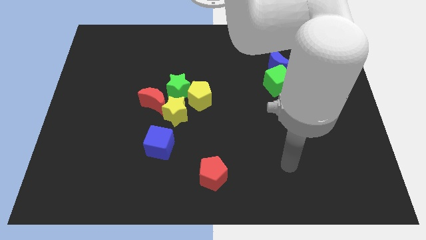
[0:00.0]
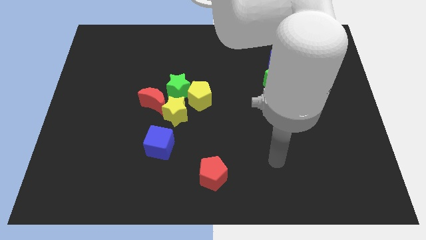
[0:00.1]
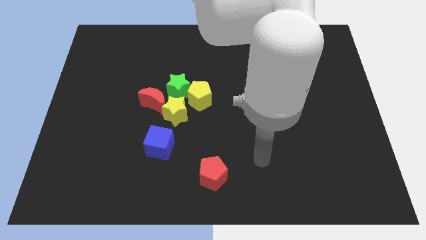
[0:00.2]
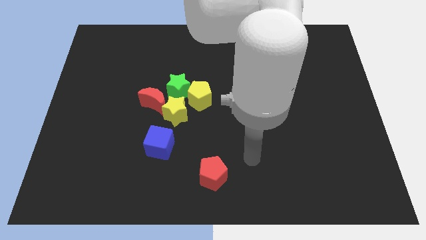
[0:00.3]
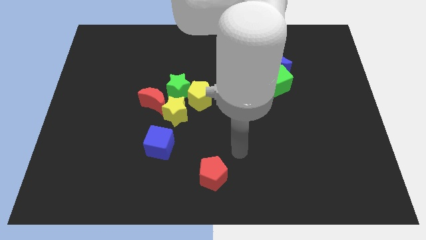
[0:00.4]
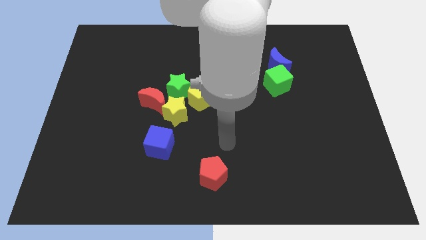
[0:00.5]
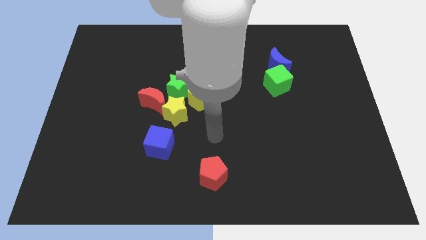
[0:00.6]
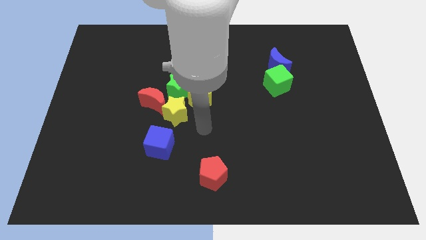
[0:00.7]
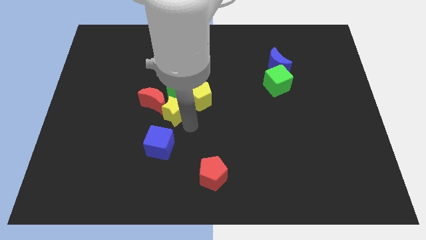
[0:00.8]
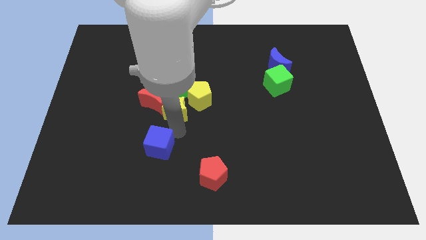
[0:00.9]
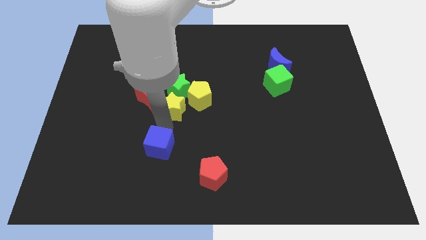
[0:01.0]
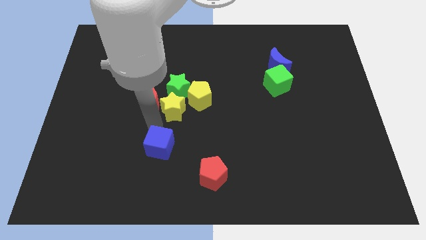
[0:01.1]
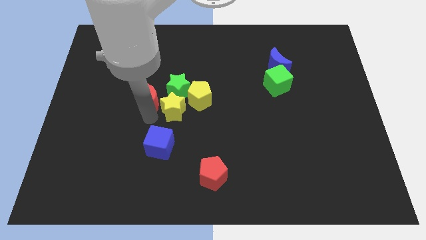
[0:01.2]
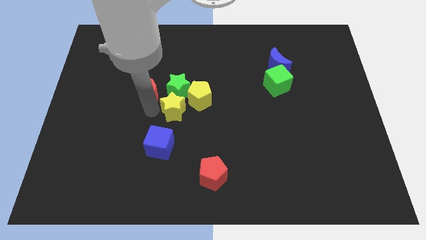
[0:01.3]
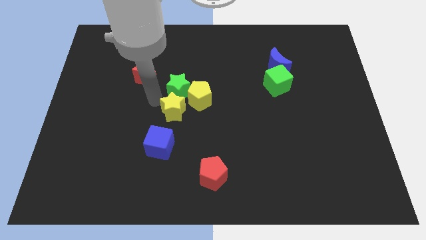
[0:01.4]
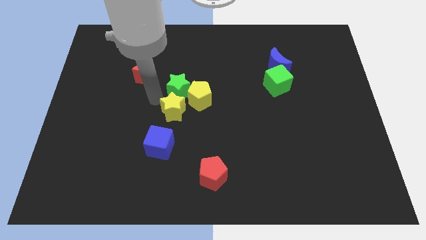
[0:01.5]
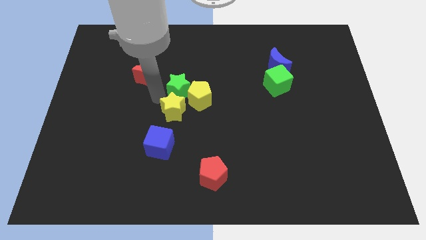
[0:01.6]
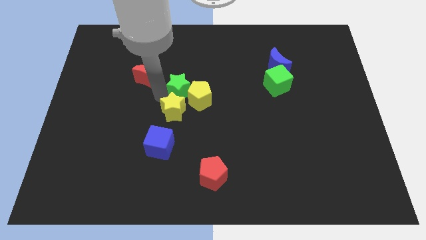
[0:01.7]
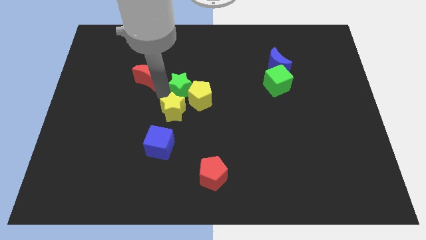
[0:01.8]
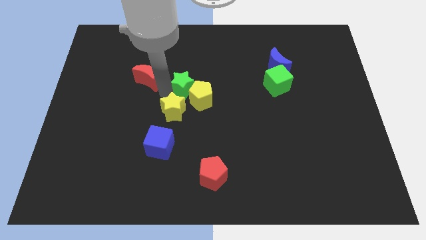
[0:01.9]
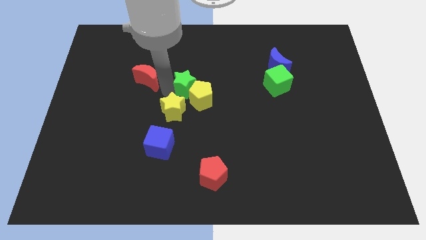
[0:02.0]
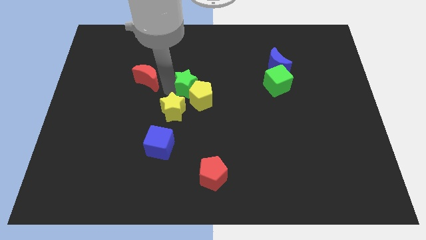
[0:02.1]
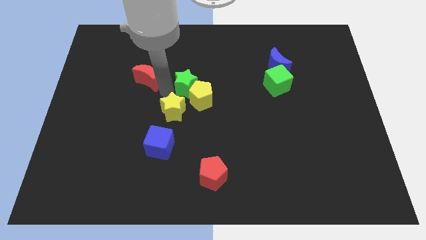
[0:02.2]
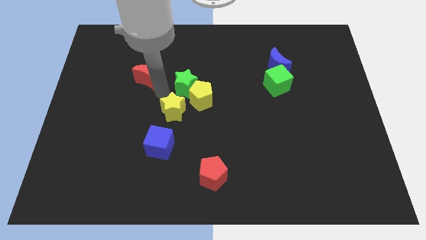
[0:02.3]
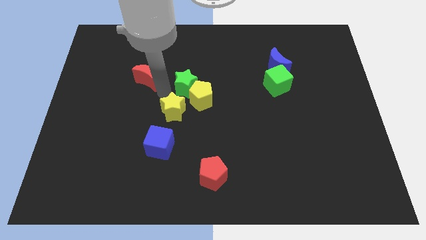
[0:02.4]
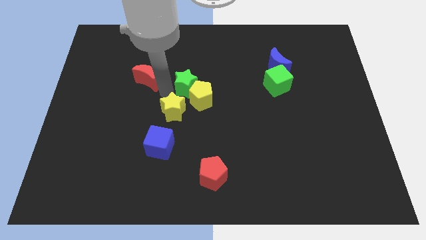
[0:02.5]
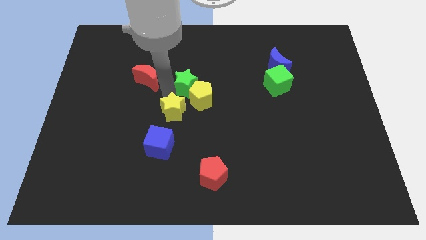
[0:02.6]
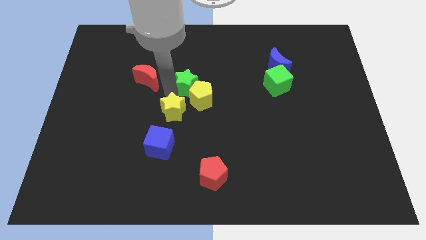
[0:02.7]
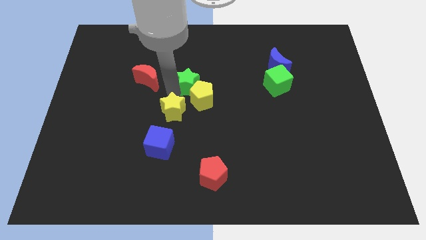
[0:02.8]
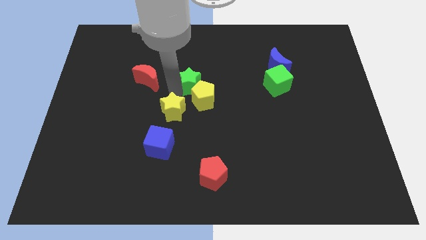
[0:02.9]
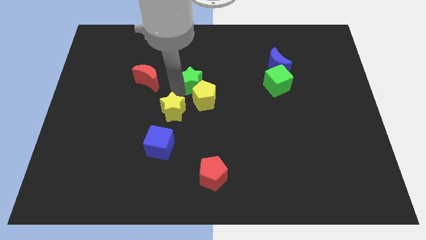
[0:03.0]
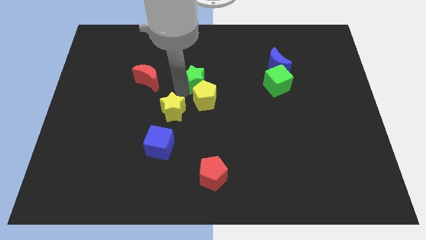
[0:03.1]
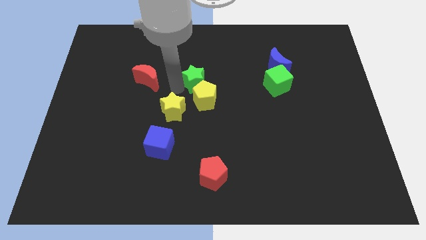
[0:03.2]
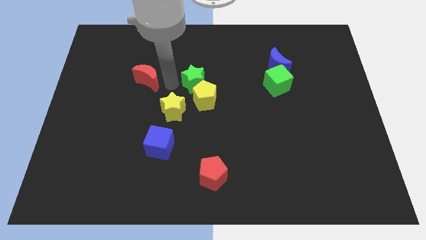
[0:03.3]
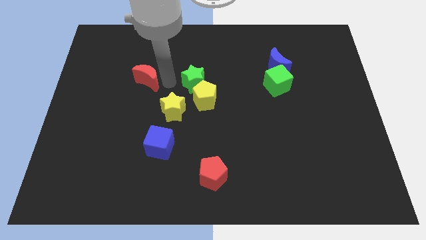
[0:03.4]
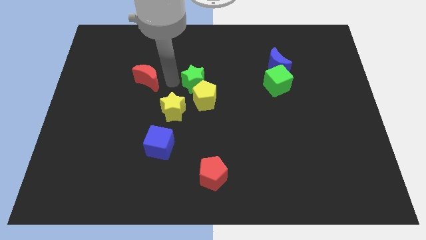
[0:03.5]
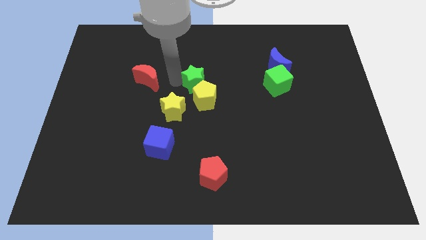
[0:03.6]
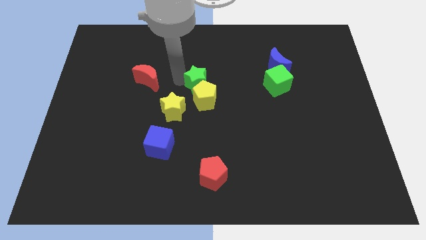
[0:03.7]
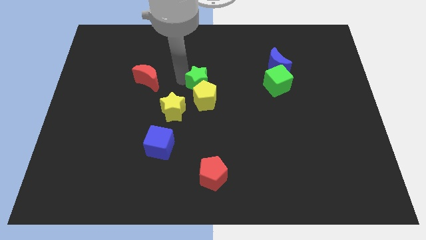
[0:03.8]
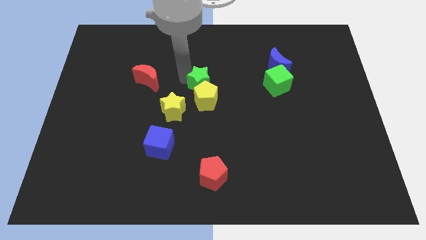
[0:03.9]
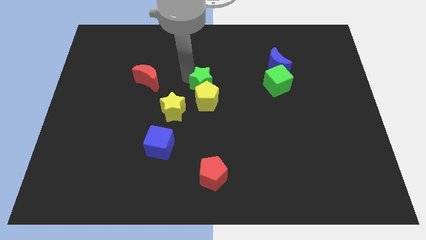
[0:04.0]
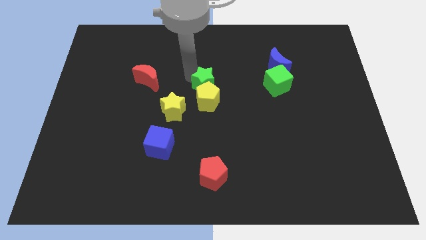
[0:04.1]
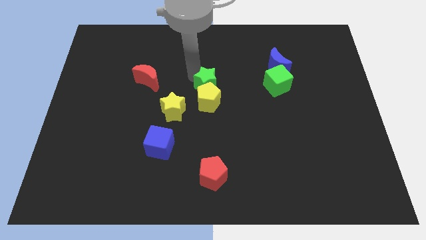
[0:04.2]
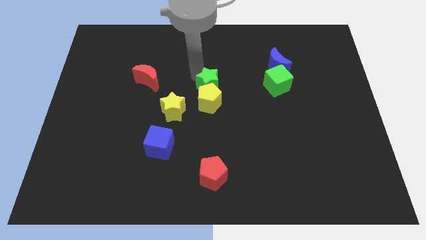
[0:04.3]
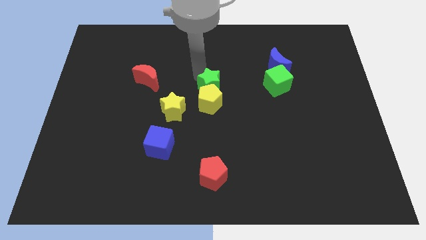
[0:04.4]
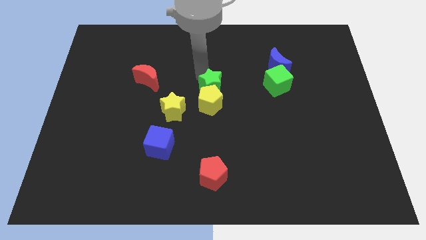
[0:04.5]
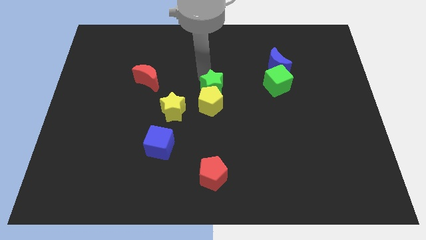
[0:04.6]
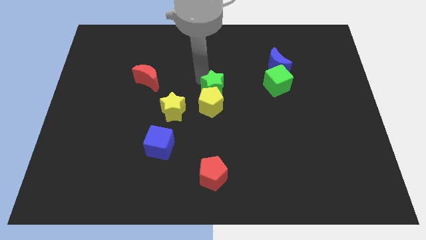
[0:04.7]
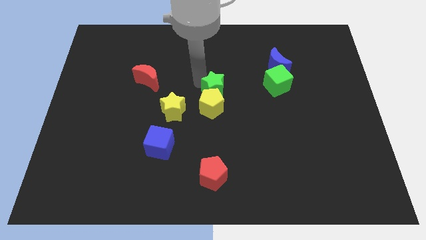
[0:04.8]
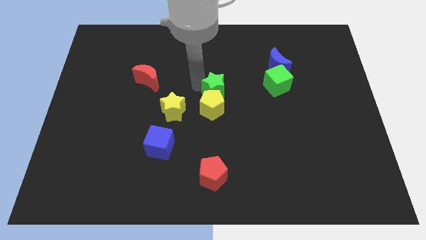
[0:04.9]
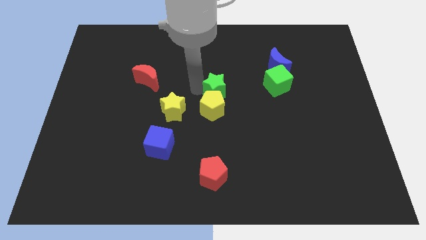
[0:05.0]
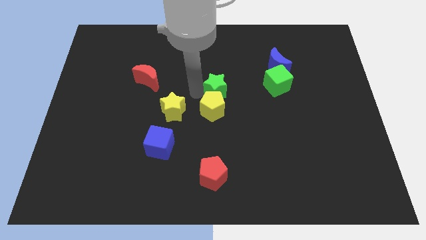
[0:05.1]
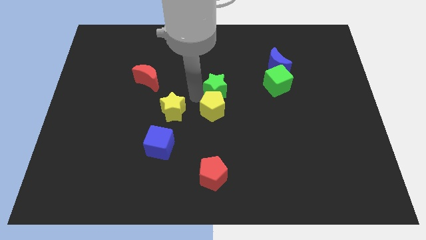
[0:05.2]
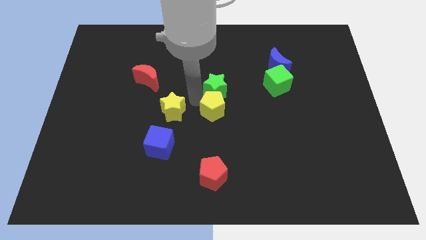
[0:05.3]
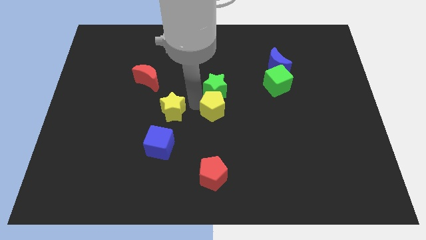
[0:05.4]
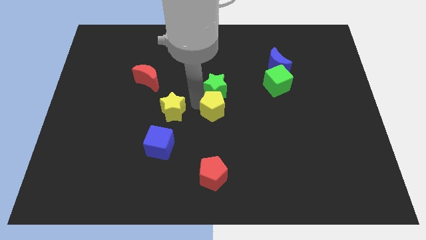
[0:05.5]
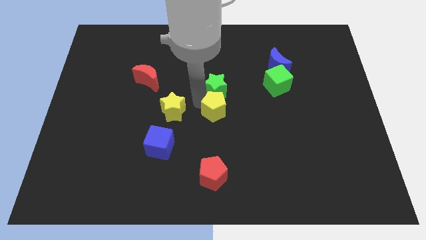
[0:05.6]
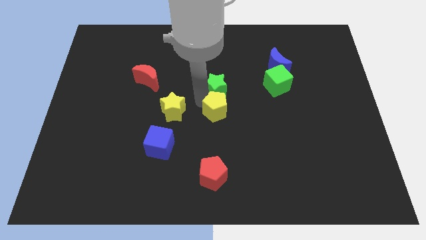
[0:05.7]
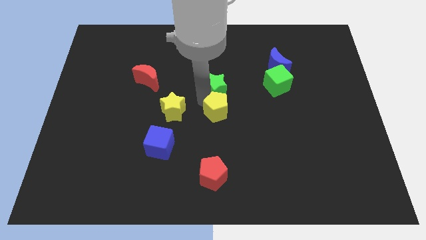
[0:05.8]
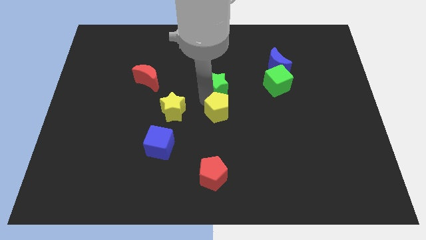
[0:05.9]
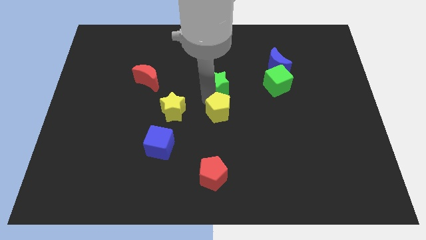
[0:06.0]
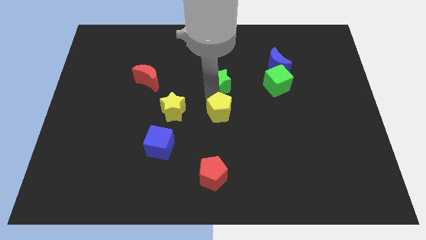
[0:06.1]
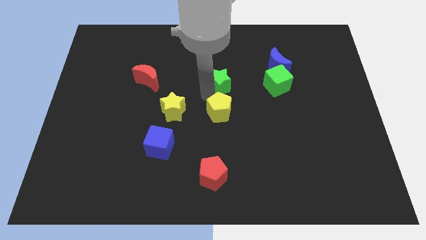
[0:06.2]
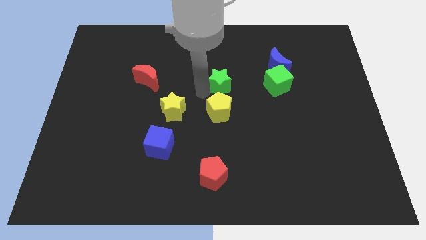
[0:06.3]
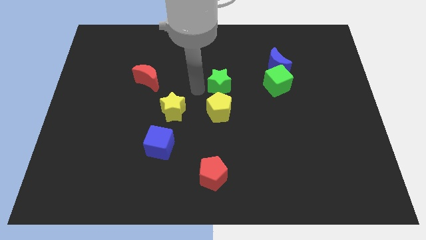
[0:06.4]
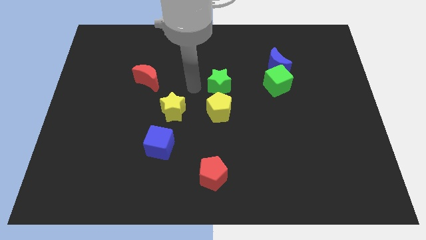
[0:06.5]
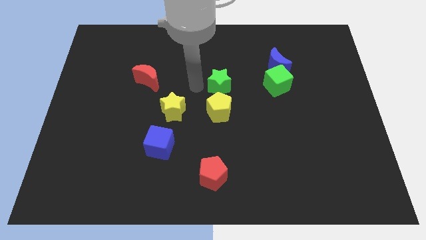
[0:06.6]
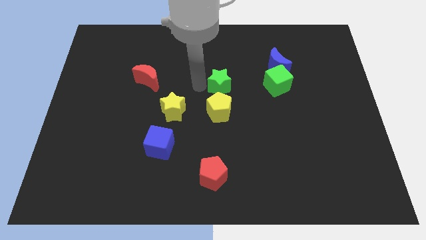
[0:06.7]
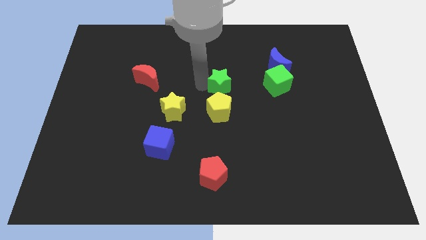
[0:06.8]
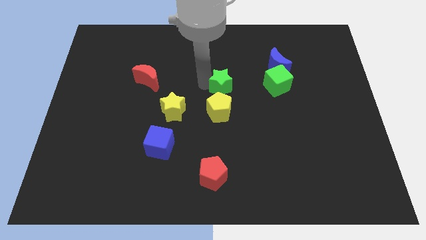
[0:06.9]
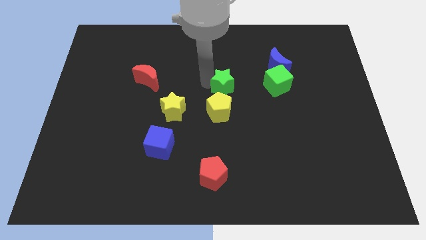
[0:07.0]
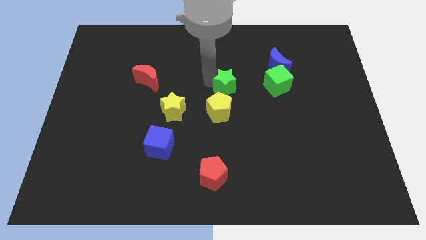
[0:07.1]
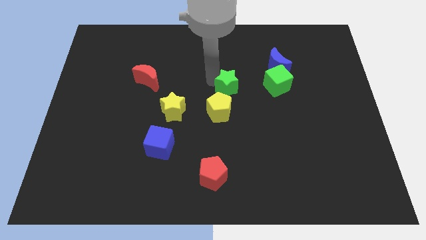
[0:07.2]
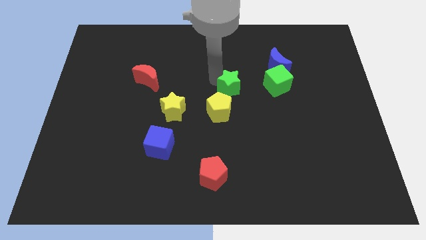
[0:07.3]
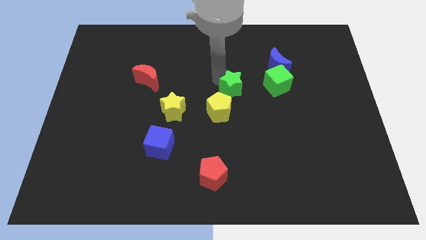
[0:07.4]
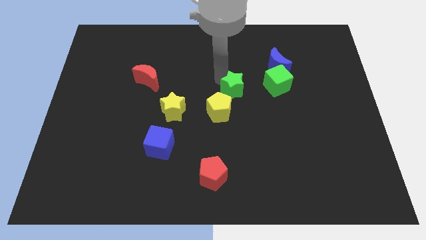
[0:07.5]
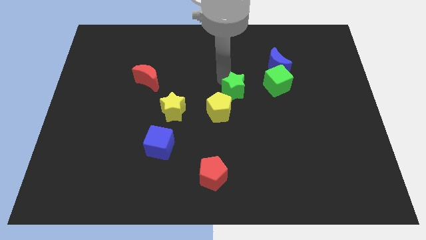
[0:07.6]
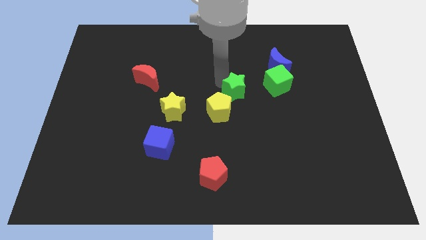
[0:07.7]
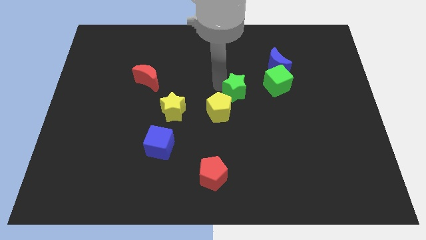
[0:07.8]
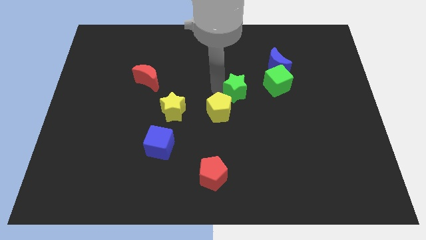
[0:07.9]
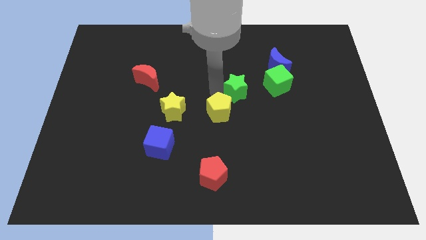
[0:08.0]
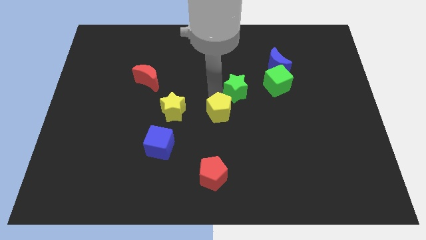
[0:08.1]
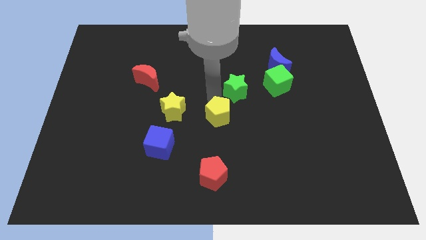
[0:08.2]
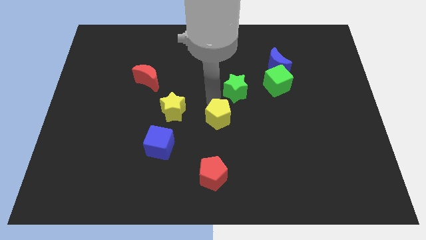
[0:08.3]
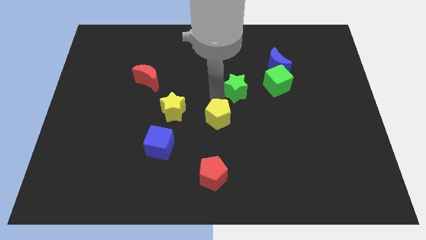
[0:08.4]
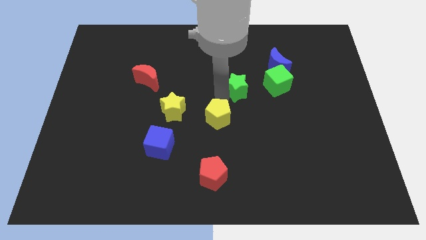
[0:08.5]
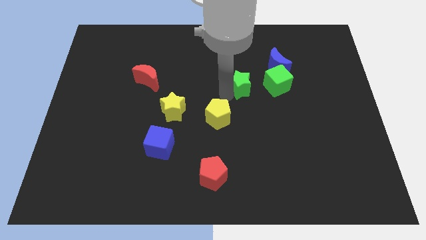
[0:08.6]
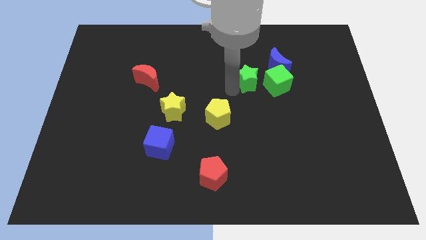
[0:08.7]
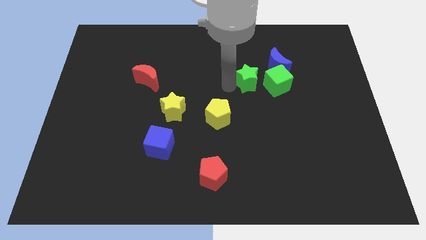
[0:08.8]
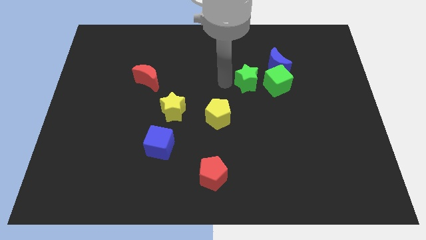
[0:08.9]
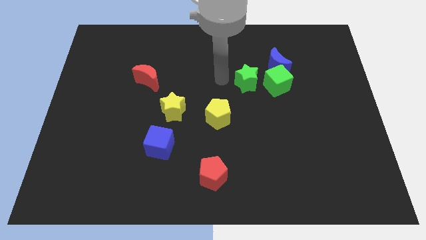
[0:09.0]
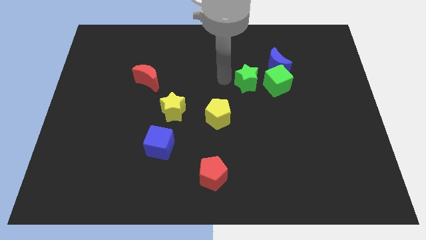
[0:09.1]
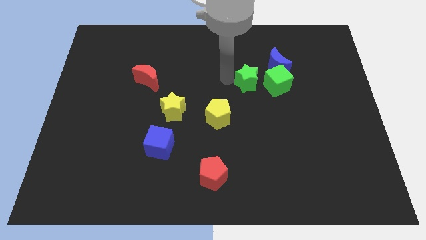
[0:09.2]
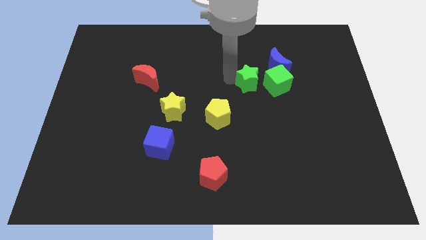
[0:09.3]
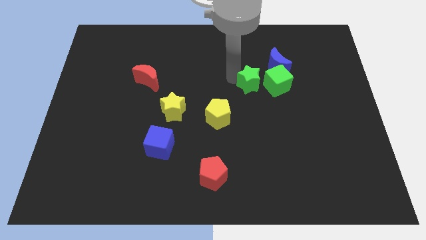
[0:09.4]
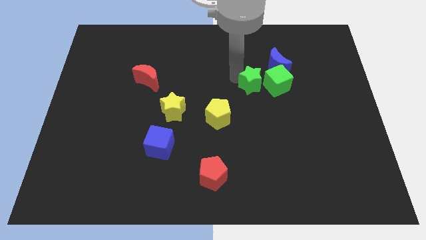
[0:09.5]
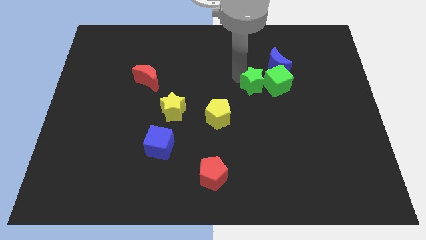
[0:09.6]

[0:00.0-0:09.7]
slide the green star close to the green cube
